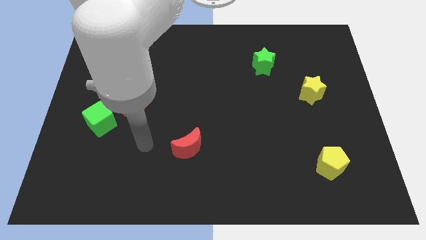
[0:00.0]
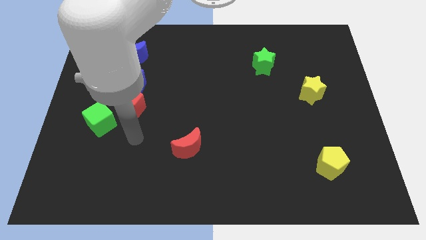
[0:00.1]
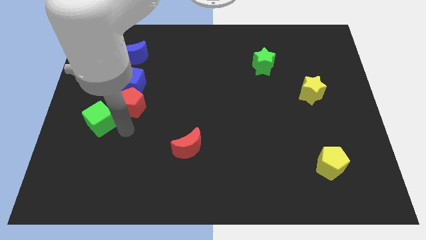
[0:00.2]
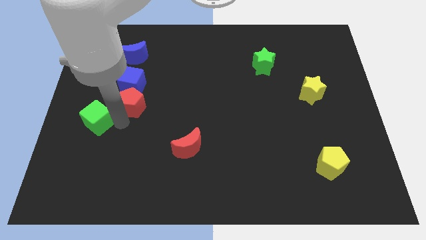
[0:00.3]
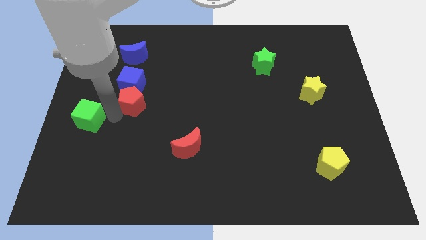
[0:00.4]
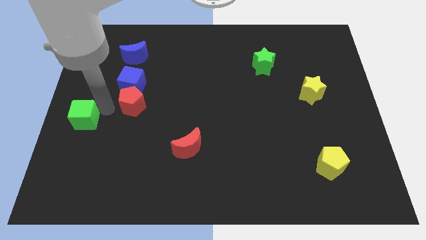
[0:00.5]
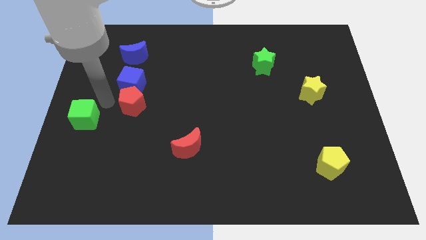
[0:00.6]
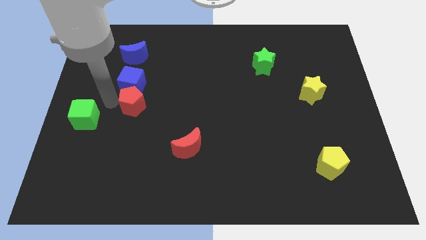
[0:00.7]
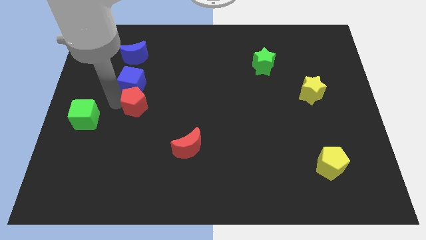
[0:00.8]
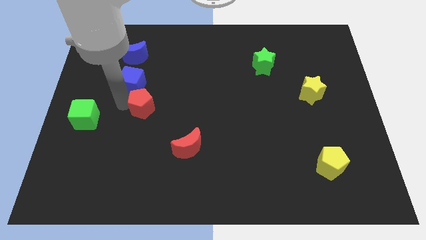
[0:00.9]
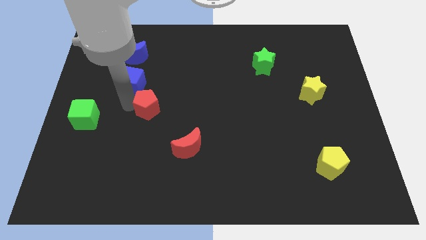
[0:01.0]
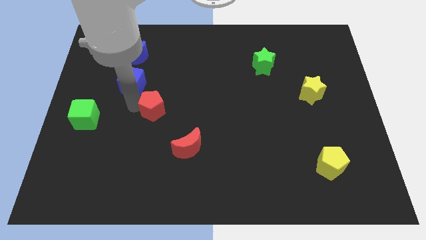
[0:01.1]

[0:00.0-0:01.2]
separate the red pentagon from the blue cube and green cube

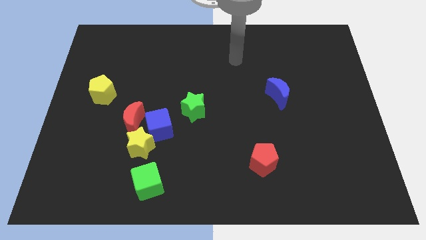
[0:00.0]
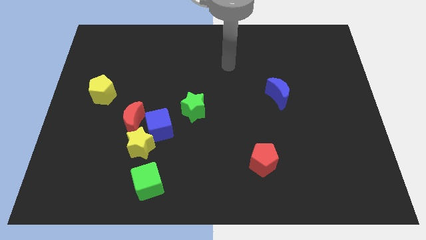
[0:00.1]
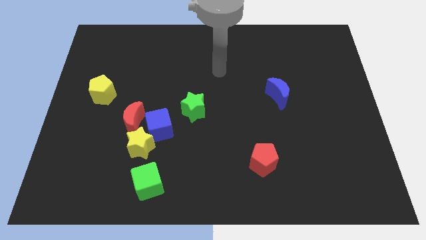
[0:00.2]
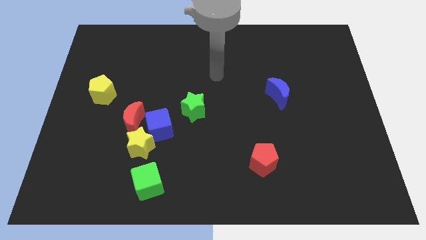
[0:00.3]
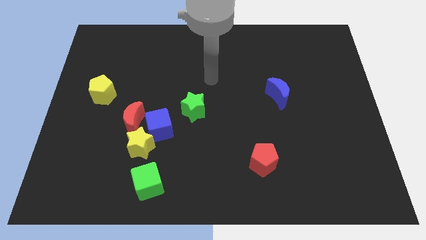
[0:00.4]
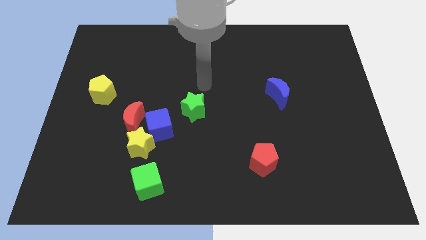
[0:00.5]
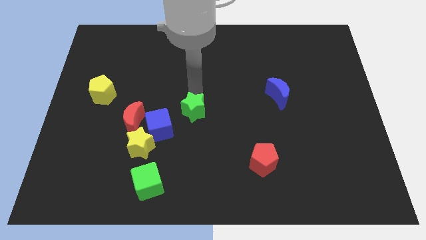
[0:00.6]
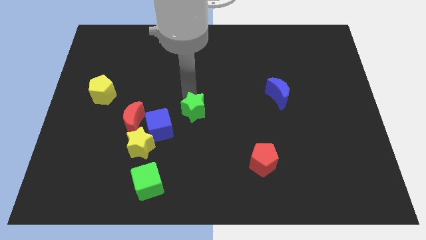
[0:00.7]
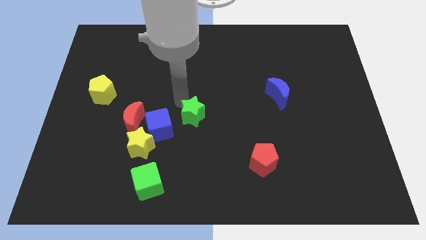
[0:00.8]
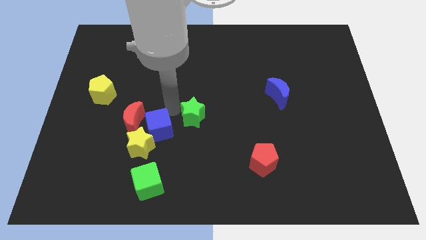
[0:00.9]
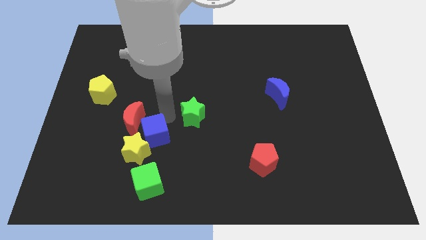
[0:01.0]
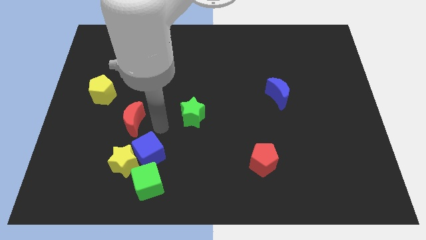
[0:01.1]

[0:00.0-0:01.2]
pull the red moon apart from the blue cube and yellow star

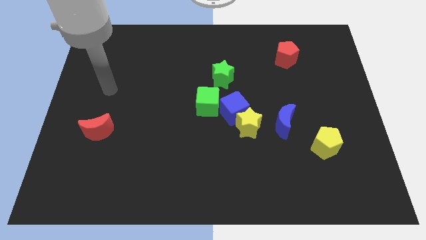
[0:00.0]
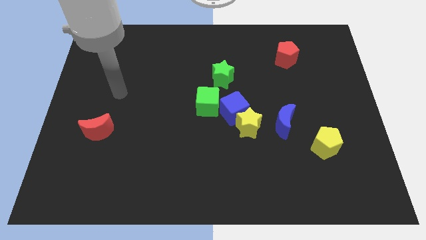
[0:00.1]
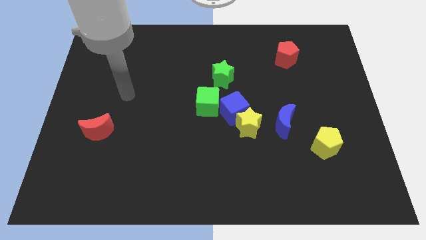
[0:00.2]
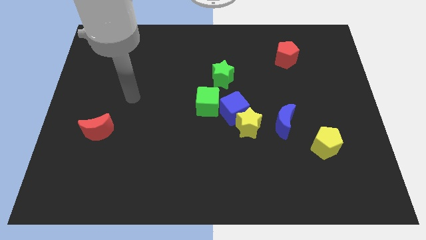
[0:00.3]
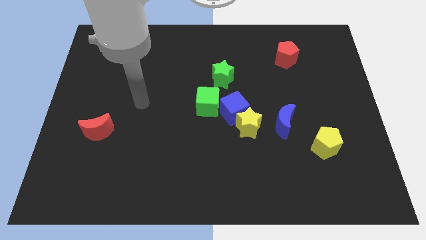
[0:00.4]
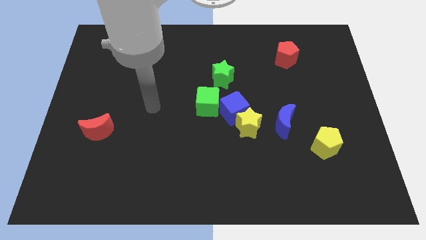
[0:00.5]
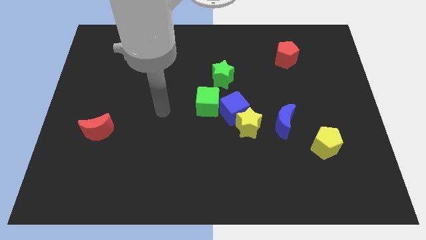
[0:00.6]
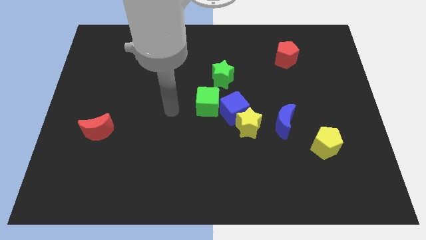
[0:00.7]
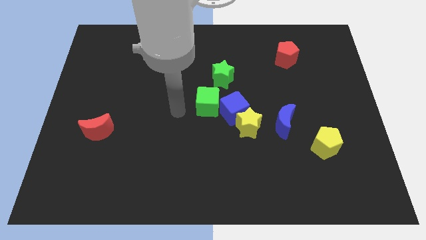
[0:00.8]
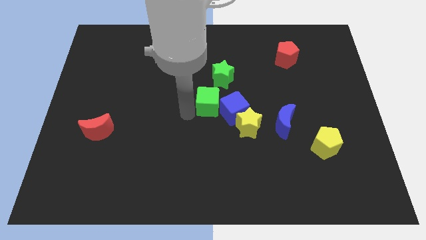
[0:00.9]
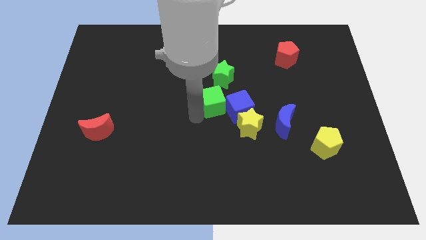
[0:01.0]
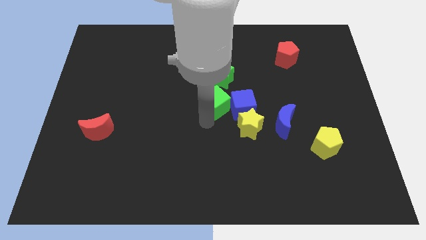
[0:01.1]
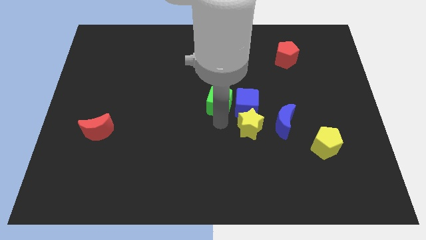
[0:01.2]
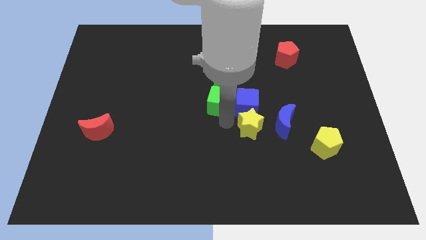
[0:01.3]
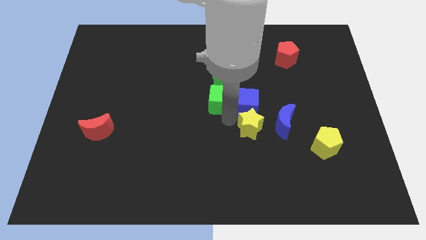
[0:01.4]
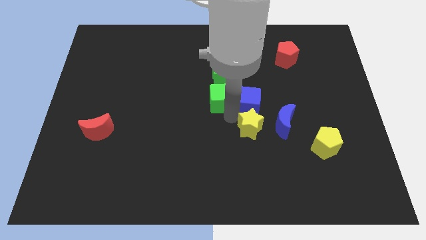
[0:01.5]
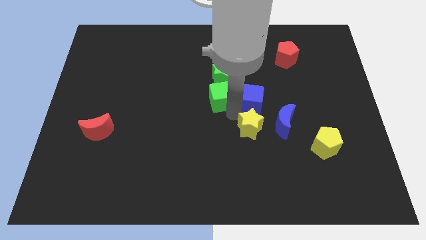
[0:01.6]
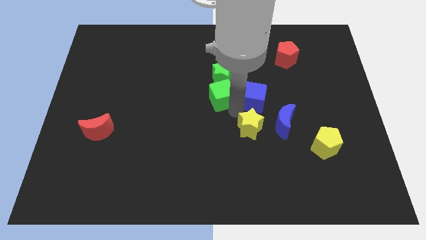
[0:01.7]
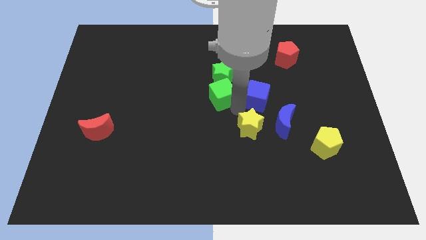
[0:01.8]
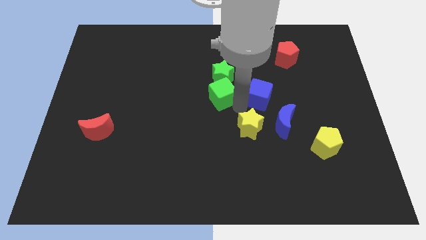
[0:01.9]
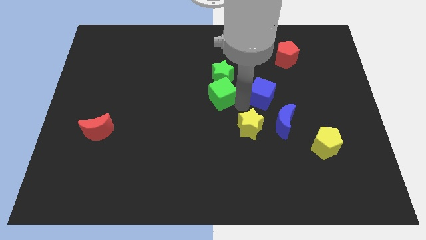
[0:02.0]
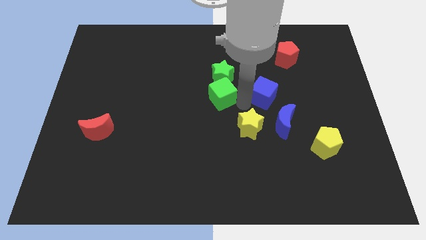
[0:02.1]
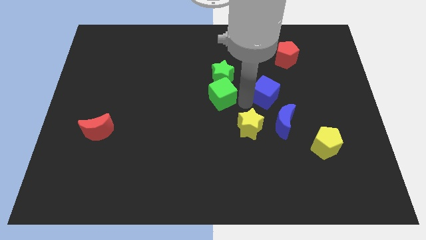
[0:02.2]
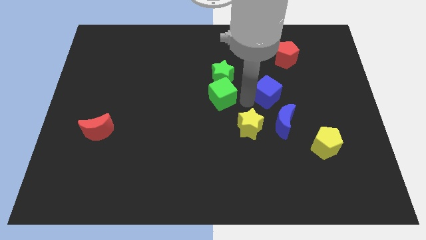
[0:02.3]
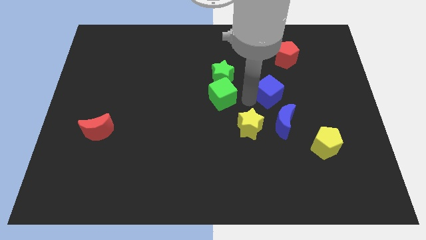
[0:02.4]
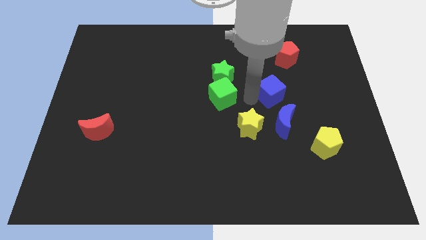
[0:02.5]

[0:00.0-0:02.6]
move the blue cube away from the yellow star and green cube

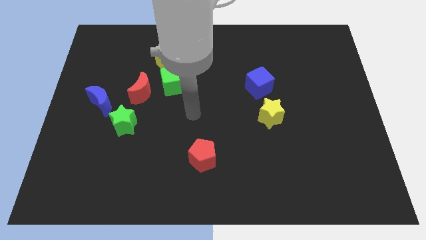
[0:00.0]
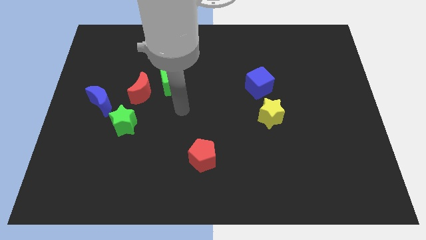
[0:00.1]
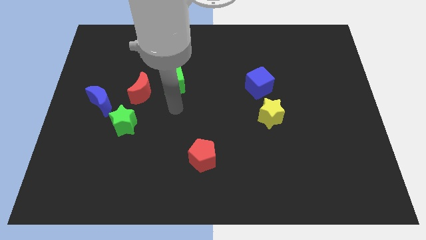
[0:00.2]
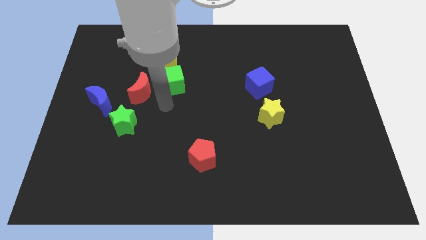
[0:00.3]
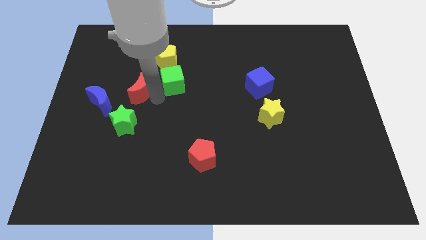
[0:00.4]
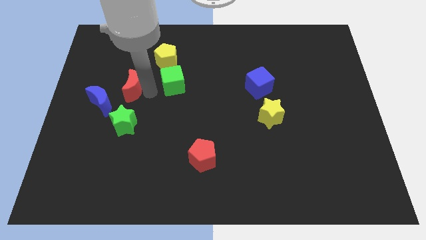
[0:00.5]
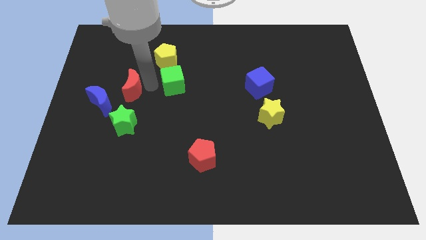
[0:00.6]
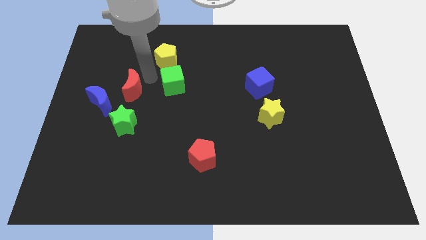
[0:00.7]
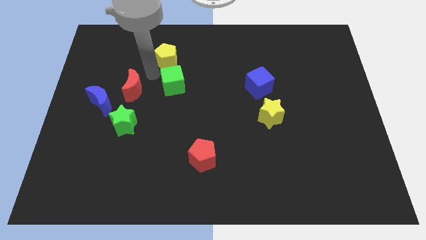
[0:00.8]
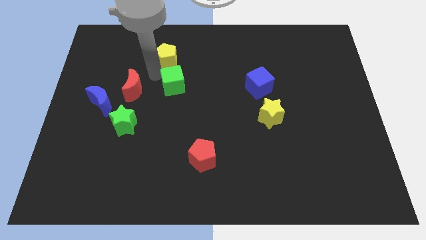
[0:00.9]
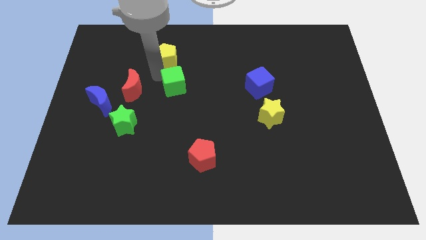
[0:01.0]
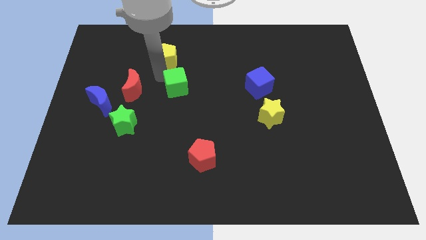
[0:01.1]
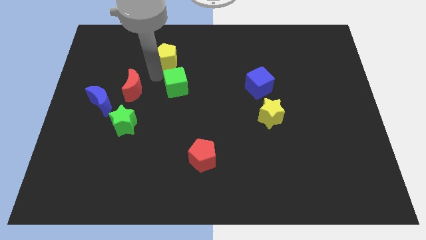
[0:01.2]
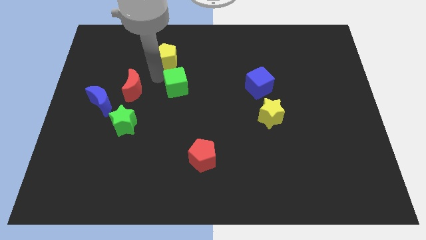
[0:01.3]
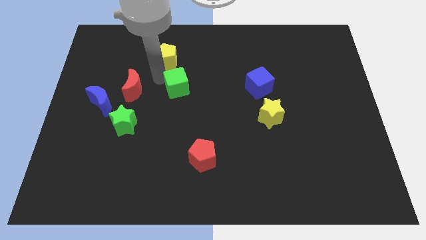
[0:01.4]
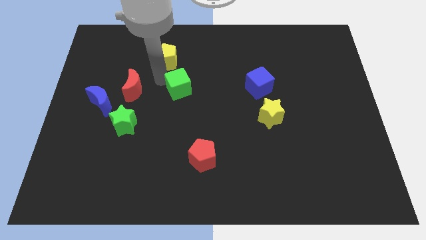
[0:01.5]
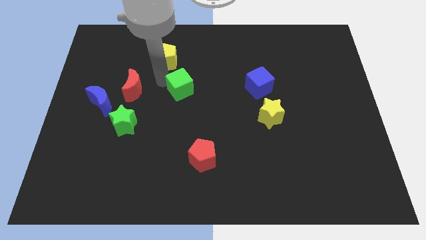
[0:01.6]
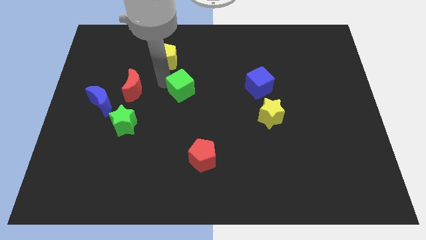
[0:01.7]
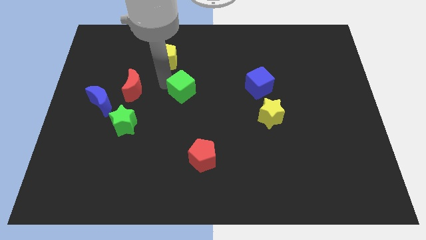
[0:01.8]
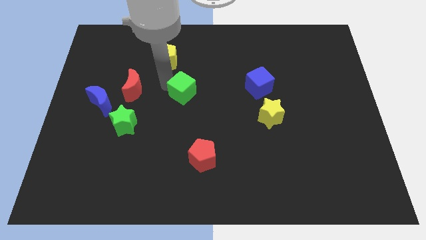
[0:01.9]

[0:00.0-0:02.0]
pull the green cube apart from the red moon and yellow pentagon

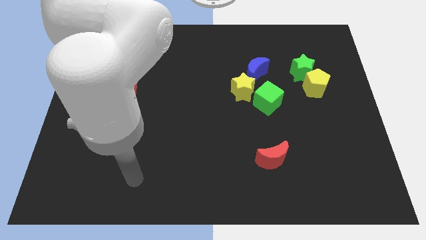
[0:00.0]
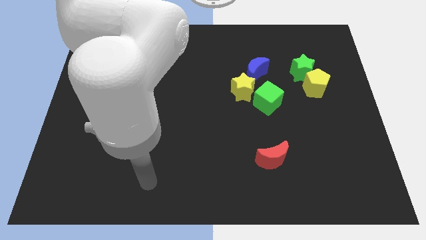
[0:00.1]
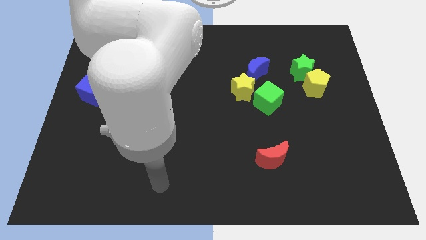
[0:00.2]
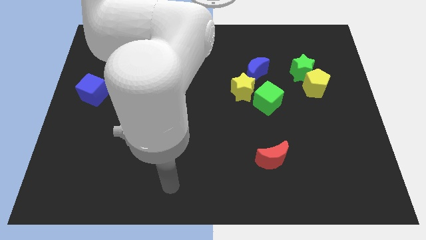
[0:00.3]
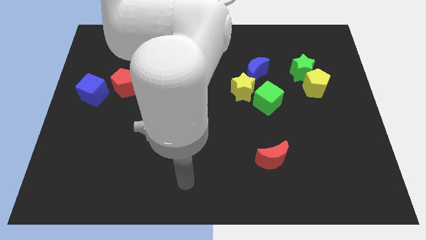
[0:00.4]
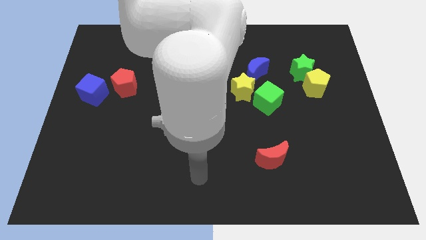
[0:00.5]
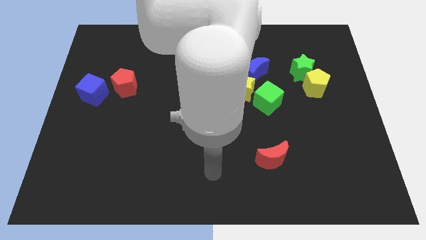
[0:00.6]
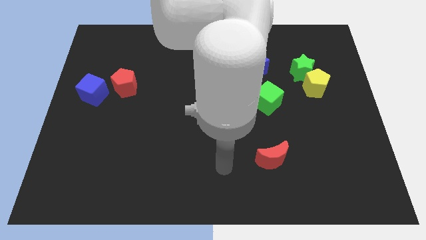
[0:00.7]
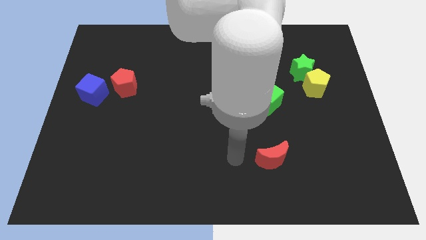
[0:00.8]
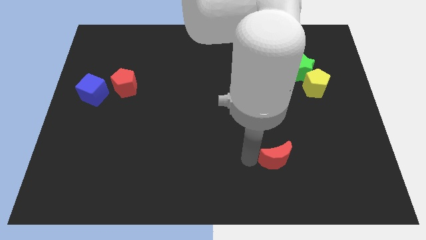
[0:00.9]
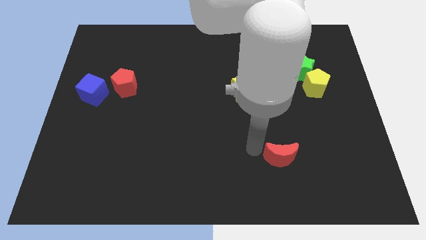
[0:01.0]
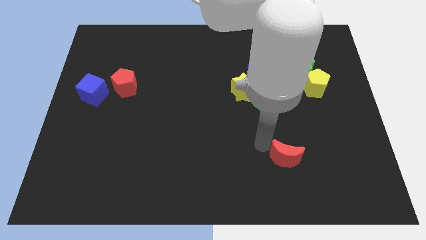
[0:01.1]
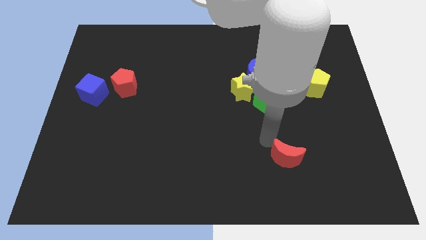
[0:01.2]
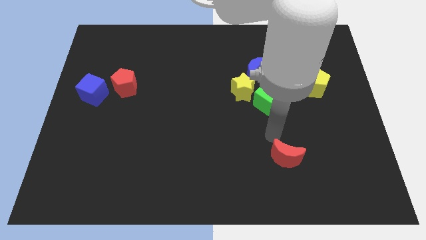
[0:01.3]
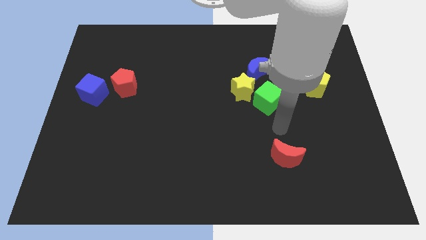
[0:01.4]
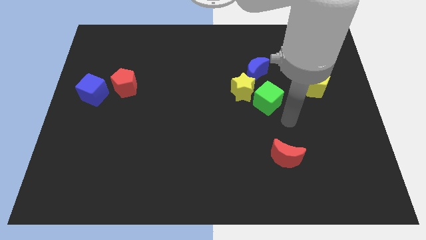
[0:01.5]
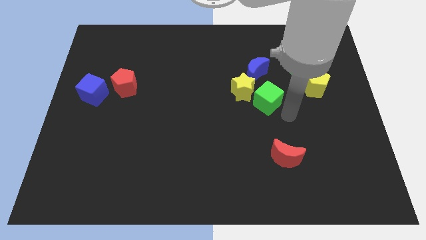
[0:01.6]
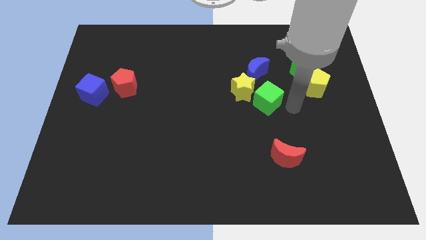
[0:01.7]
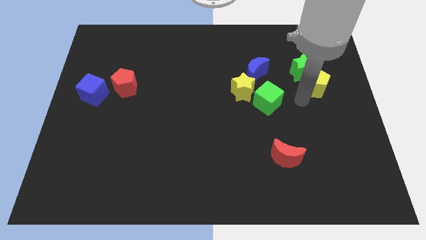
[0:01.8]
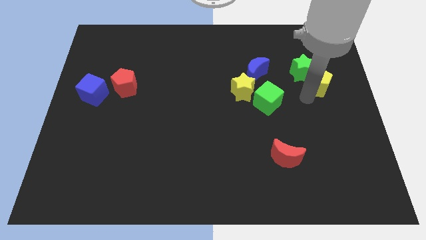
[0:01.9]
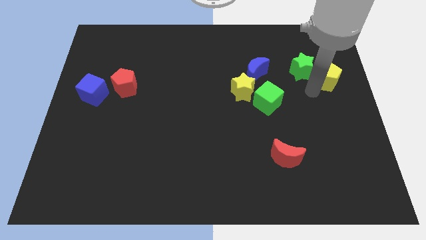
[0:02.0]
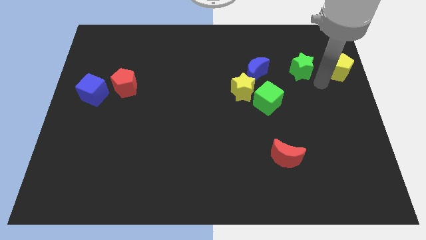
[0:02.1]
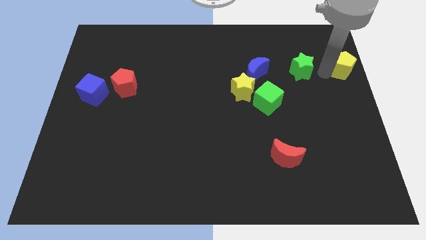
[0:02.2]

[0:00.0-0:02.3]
pull the green star apart from the yellow pentagon
